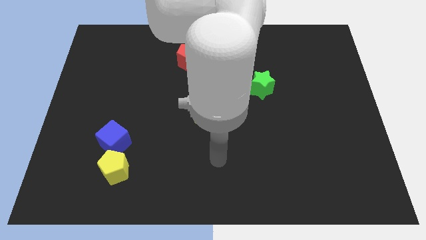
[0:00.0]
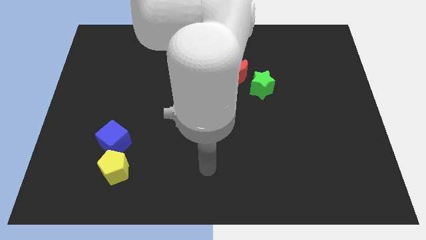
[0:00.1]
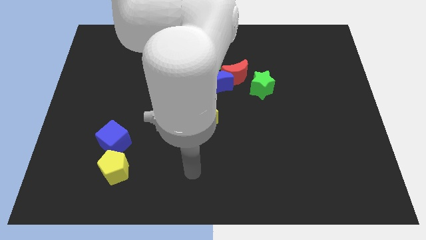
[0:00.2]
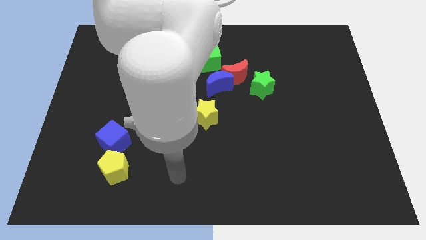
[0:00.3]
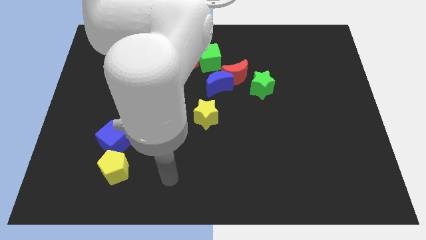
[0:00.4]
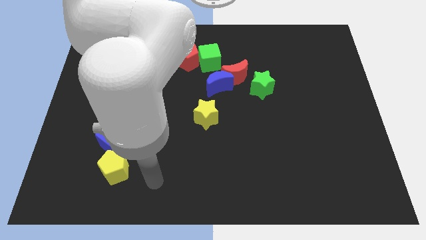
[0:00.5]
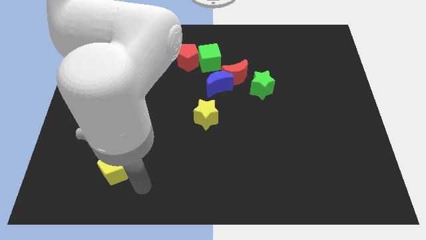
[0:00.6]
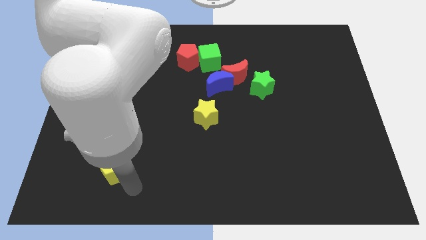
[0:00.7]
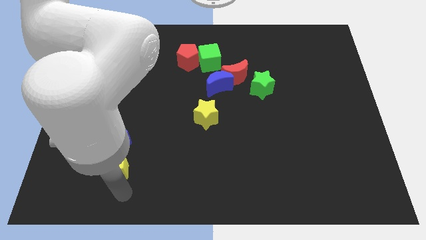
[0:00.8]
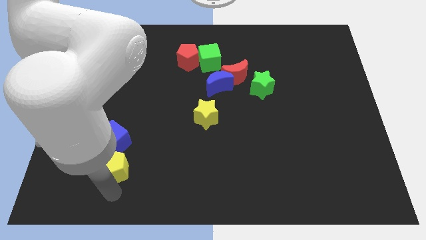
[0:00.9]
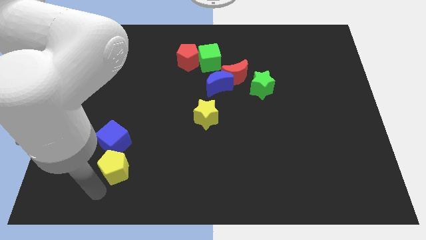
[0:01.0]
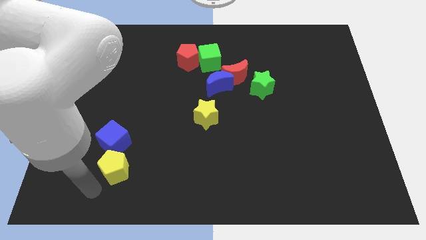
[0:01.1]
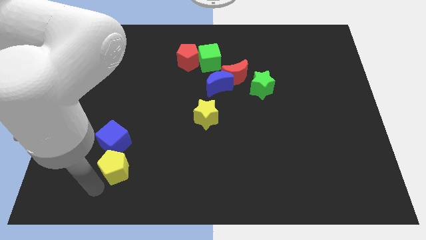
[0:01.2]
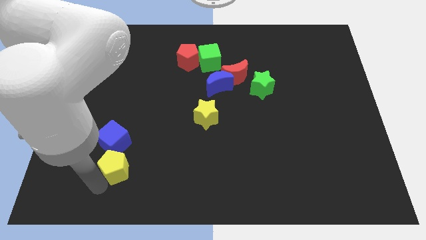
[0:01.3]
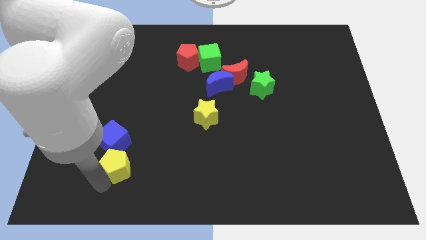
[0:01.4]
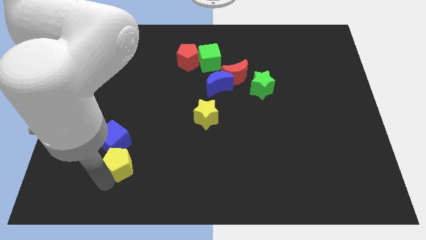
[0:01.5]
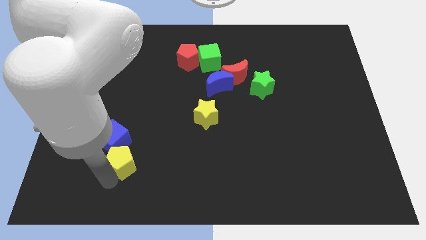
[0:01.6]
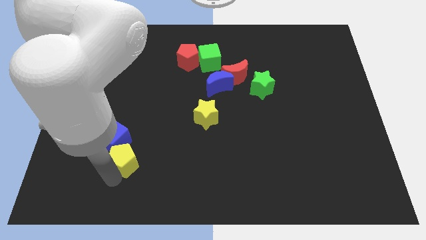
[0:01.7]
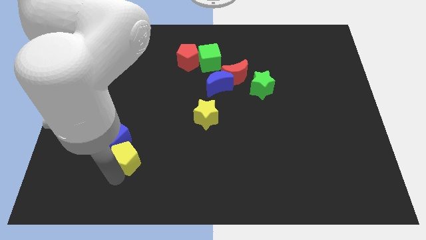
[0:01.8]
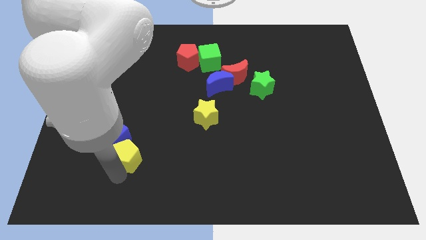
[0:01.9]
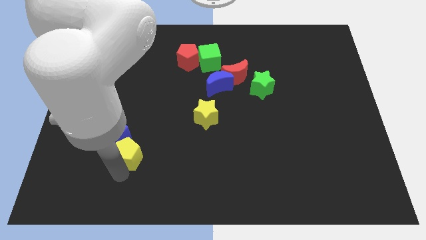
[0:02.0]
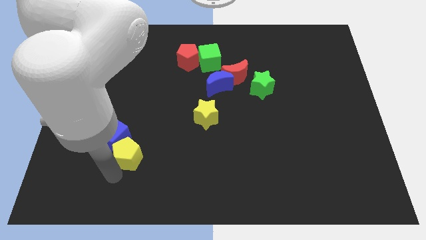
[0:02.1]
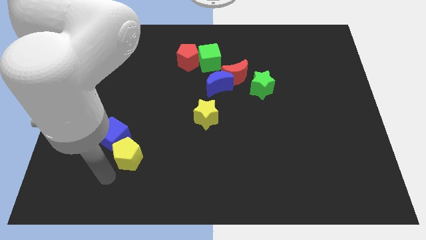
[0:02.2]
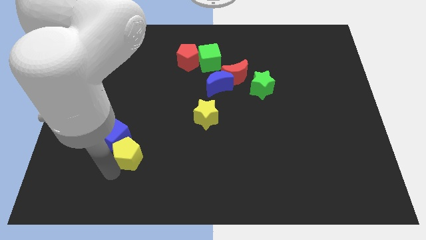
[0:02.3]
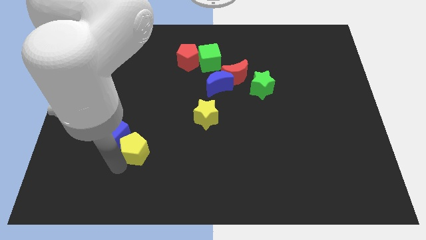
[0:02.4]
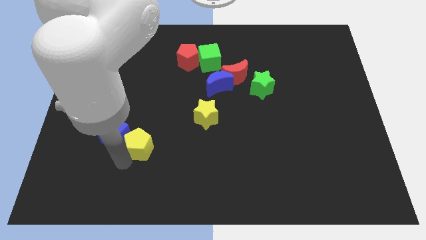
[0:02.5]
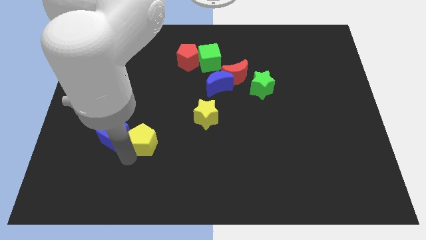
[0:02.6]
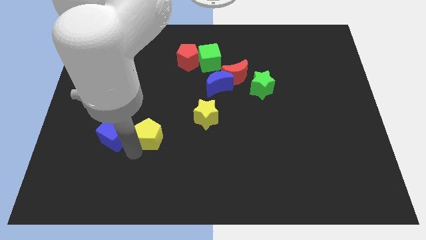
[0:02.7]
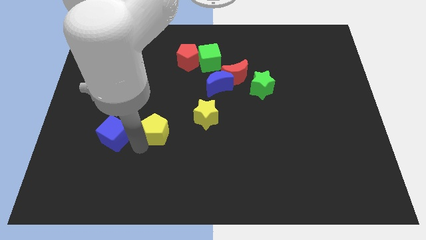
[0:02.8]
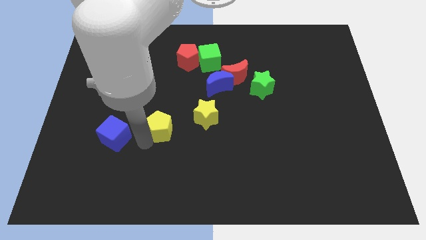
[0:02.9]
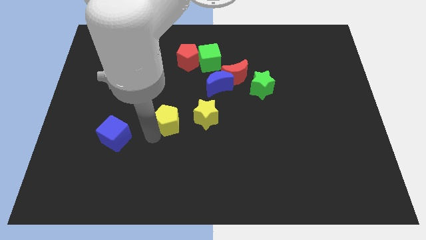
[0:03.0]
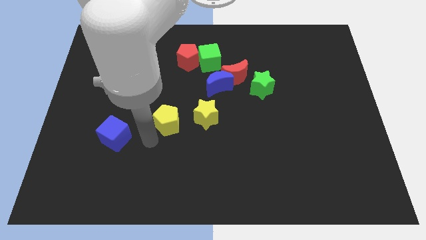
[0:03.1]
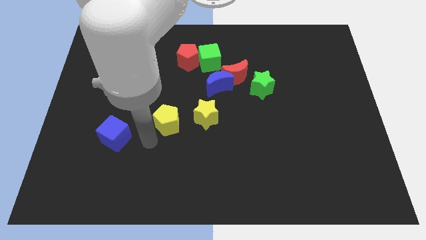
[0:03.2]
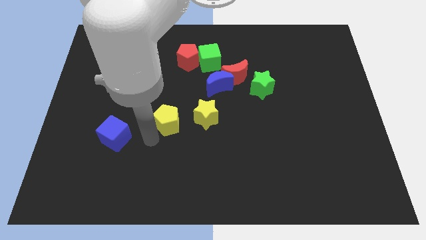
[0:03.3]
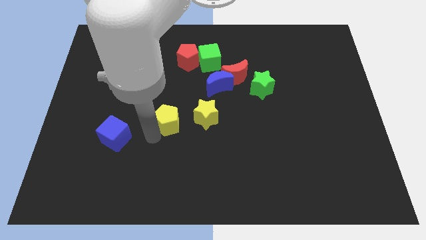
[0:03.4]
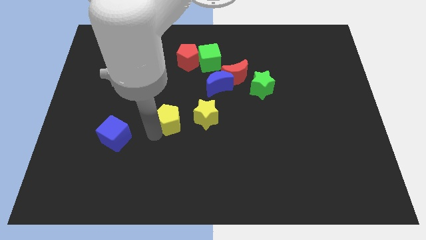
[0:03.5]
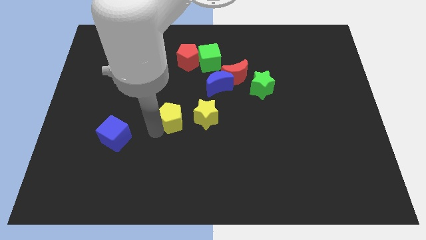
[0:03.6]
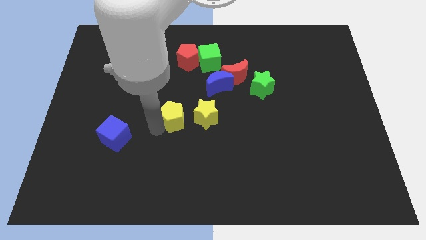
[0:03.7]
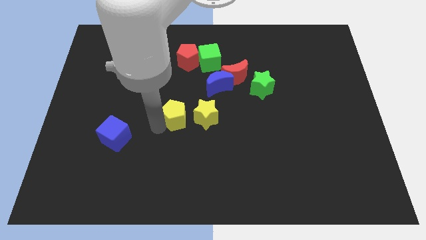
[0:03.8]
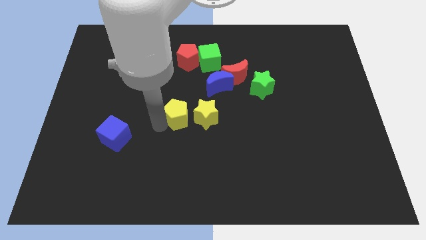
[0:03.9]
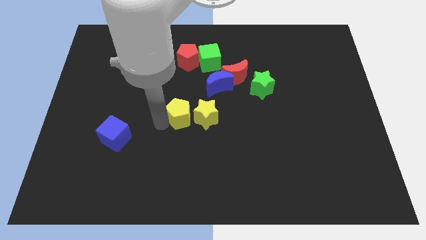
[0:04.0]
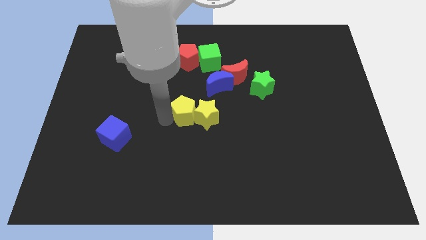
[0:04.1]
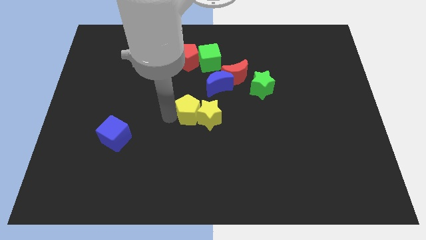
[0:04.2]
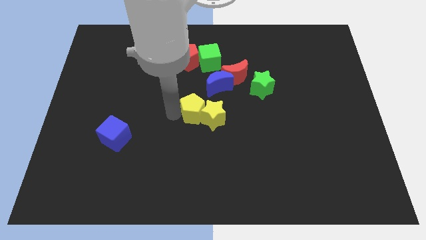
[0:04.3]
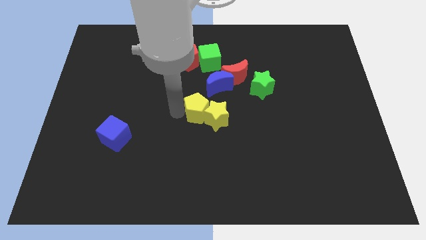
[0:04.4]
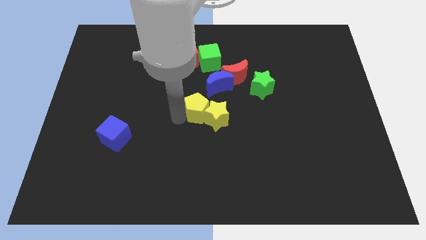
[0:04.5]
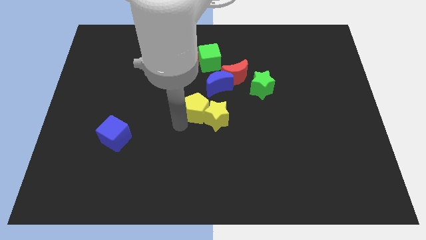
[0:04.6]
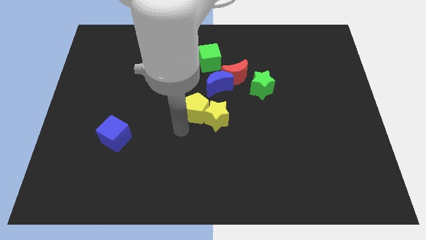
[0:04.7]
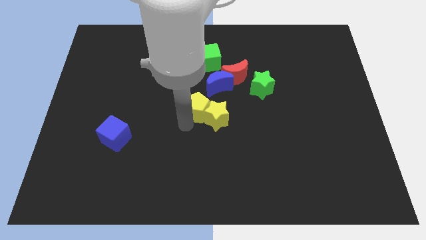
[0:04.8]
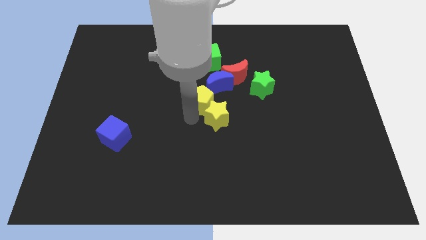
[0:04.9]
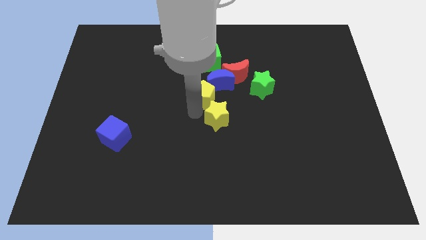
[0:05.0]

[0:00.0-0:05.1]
put the yellow pentagon to the blue moon

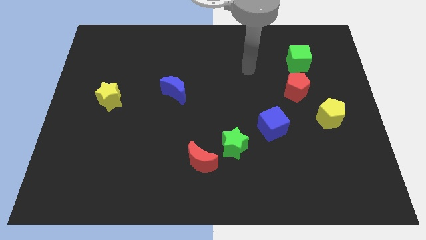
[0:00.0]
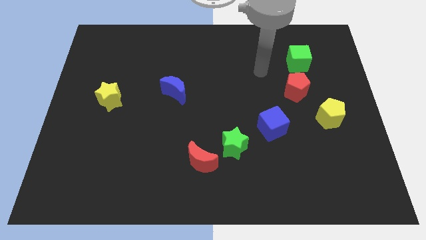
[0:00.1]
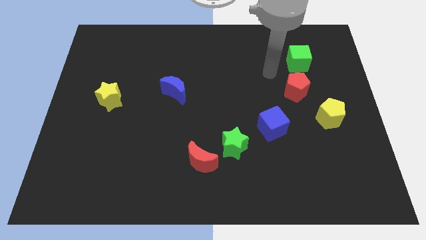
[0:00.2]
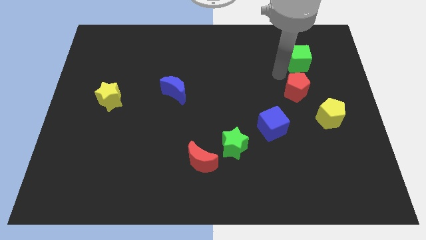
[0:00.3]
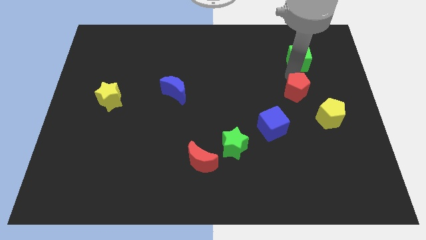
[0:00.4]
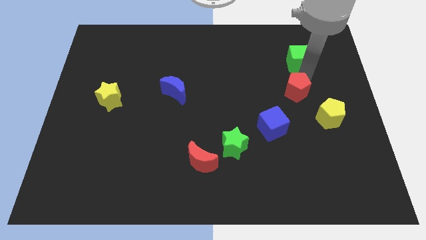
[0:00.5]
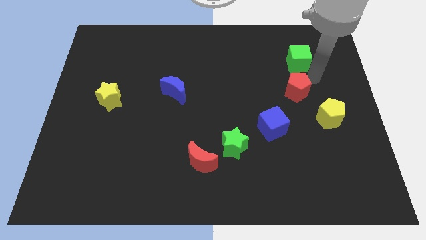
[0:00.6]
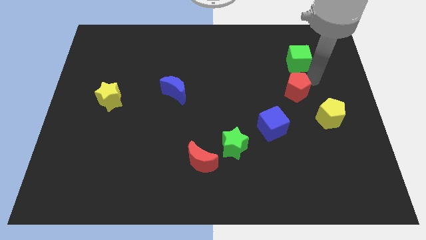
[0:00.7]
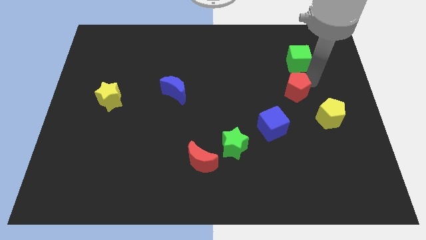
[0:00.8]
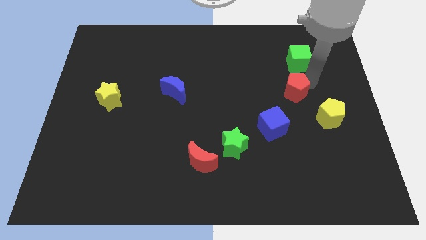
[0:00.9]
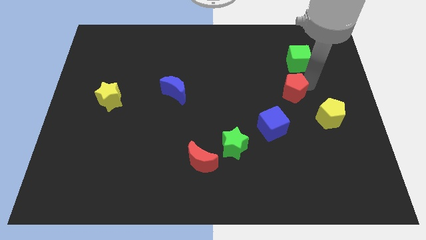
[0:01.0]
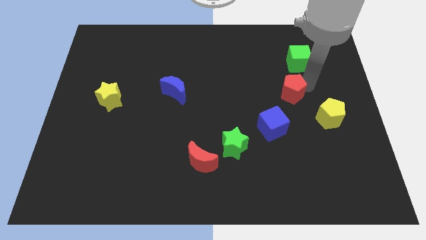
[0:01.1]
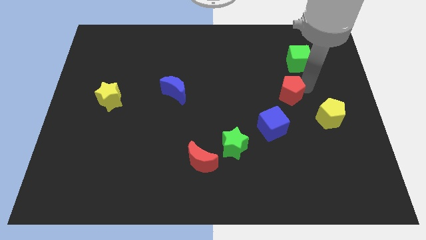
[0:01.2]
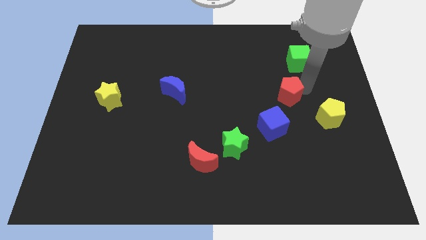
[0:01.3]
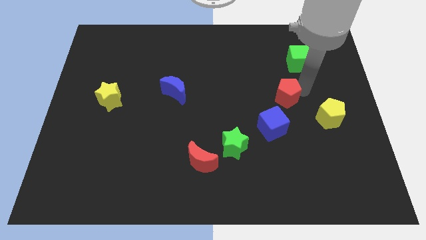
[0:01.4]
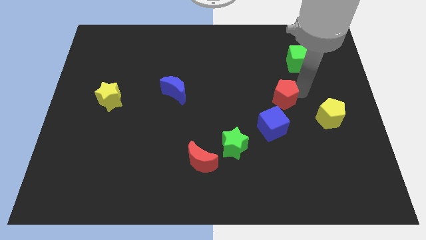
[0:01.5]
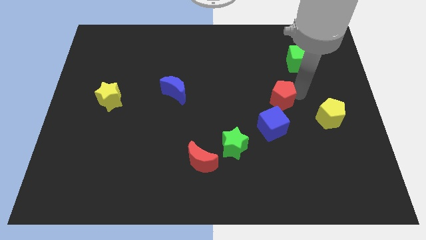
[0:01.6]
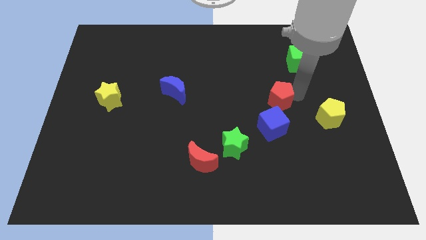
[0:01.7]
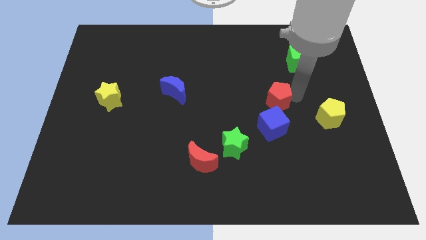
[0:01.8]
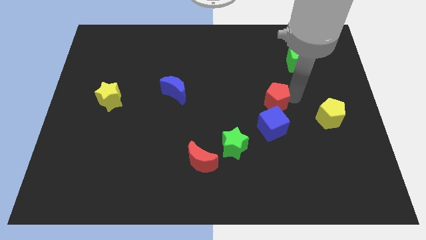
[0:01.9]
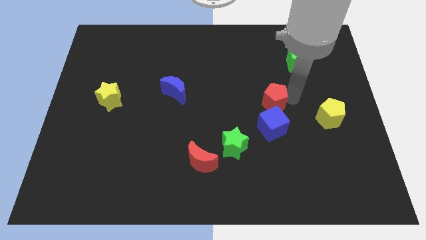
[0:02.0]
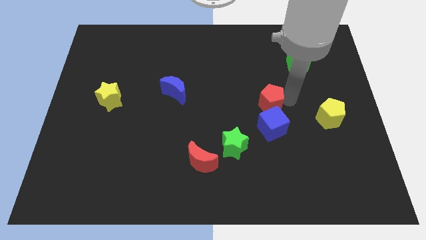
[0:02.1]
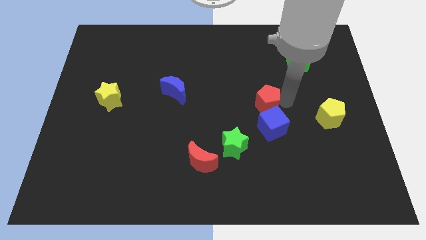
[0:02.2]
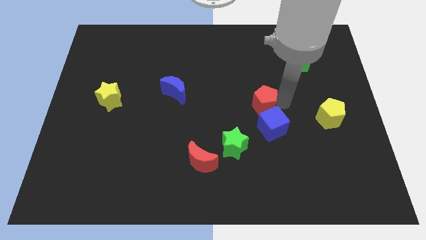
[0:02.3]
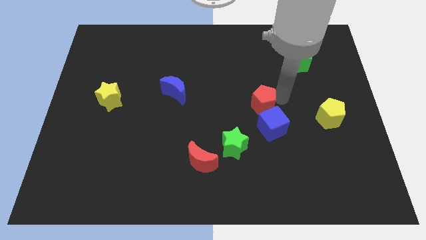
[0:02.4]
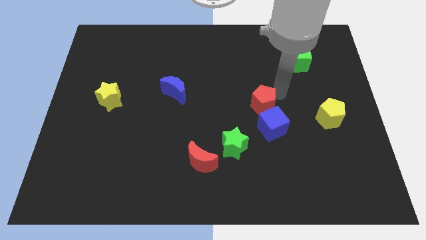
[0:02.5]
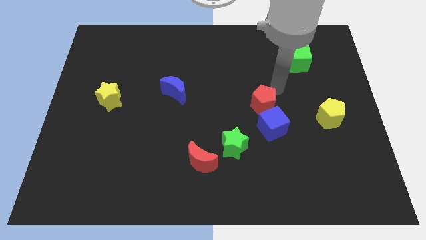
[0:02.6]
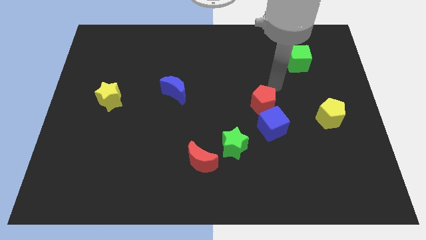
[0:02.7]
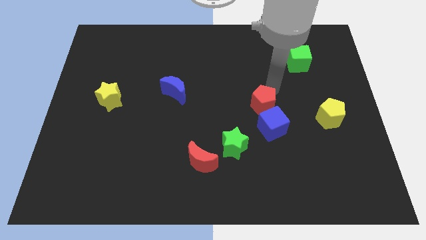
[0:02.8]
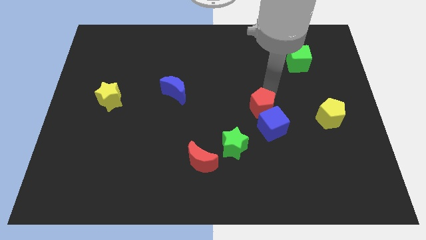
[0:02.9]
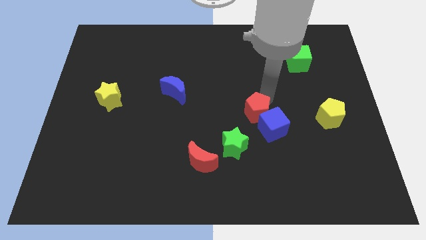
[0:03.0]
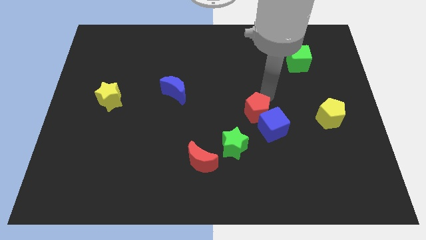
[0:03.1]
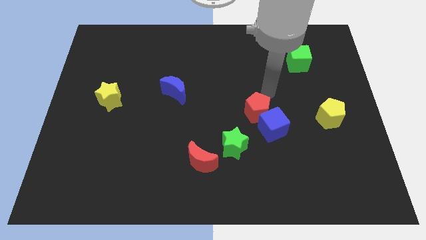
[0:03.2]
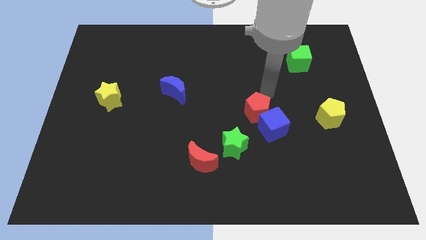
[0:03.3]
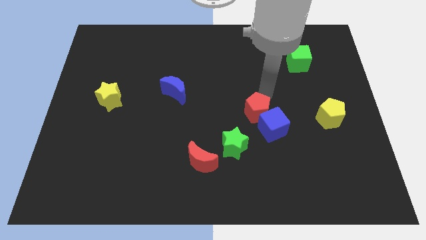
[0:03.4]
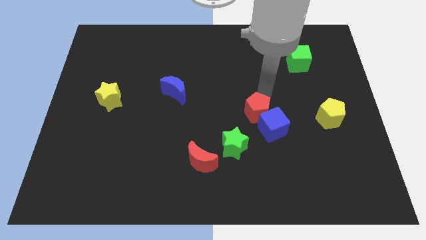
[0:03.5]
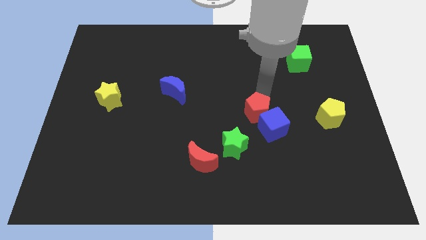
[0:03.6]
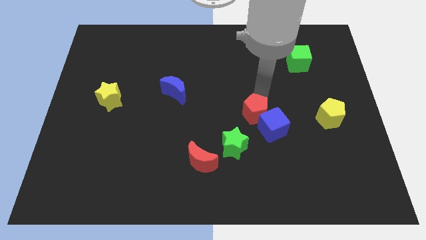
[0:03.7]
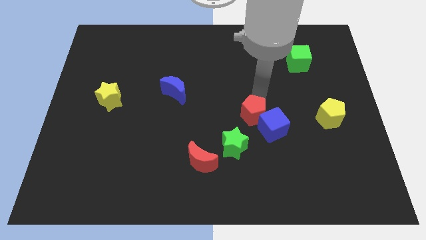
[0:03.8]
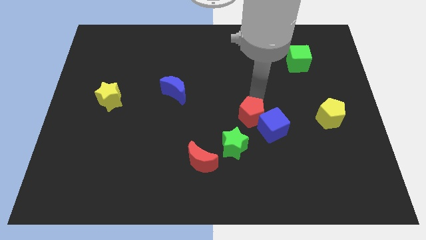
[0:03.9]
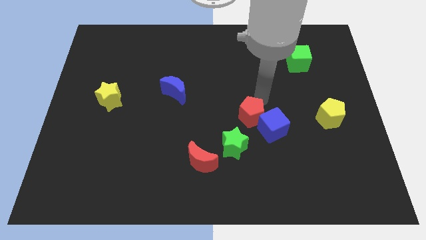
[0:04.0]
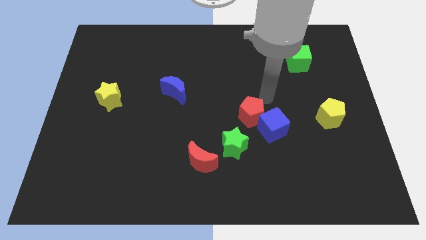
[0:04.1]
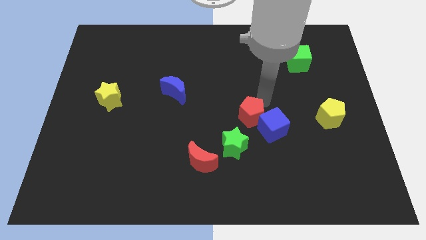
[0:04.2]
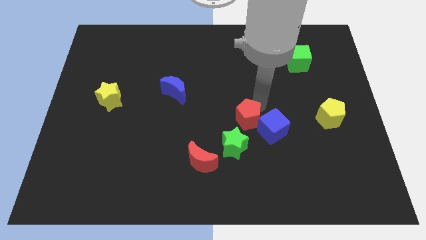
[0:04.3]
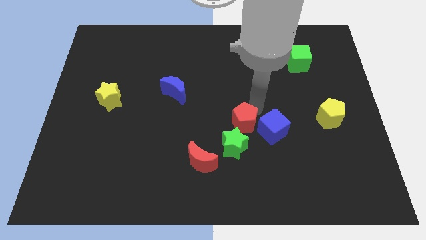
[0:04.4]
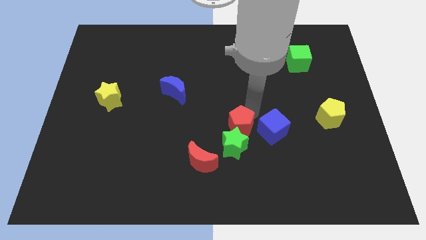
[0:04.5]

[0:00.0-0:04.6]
move the red pentagon towards the green star
